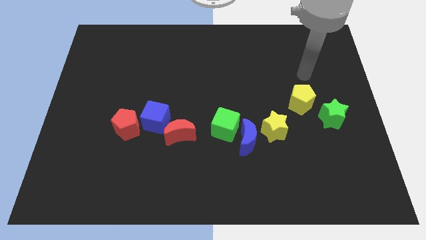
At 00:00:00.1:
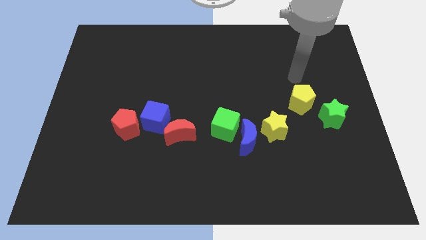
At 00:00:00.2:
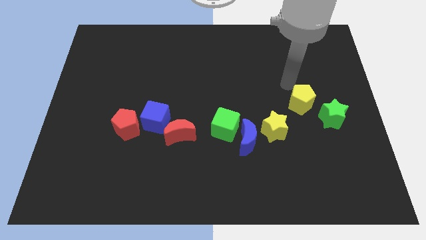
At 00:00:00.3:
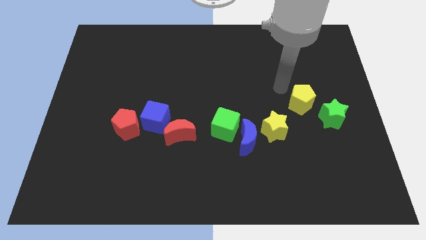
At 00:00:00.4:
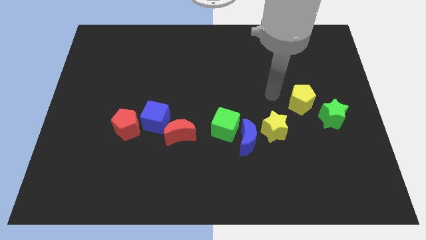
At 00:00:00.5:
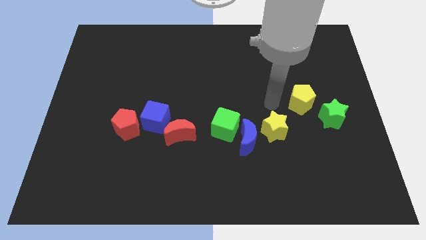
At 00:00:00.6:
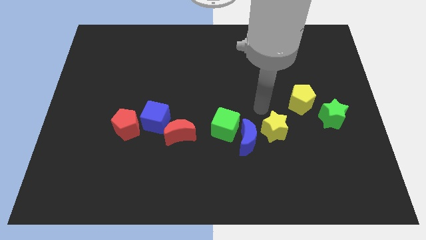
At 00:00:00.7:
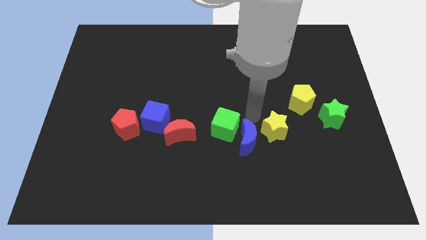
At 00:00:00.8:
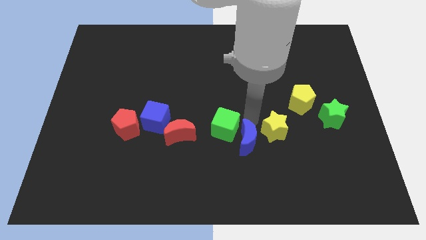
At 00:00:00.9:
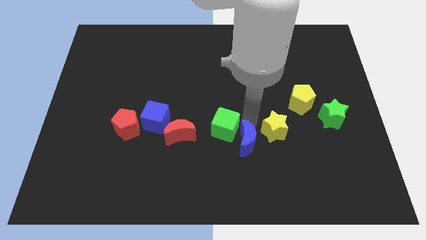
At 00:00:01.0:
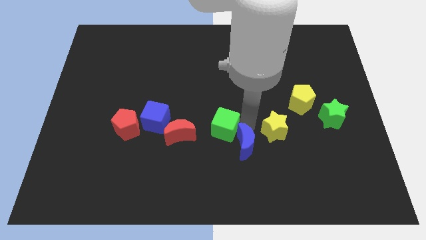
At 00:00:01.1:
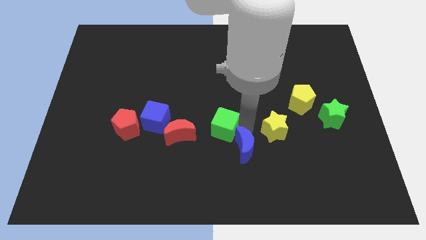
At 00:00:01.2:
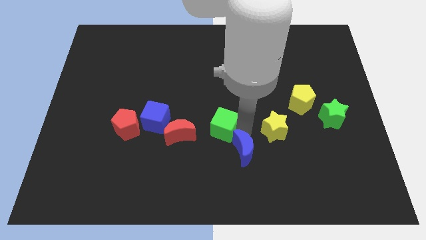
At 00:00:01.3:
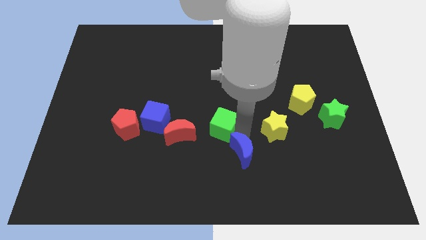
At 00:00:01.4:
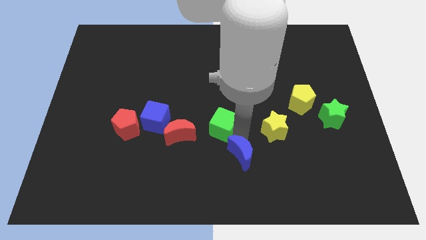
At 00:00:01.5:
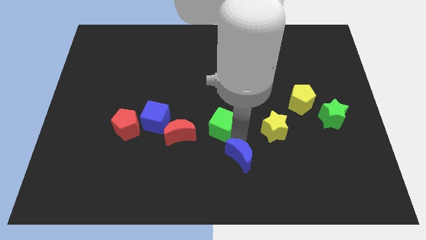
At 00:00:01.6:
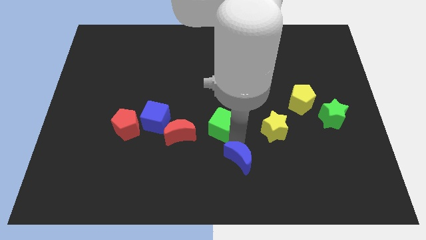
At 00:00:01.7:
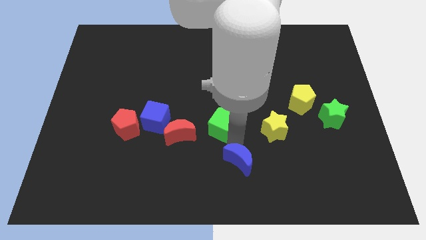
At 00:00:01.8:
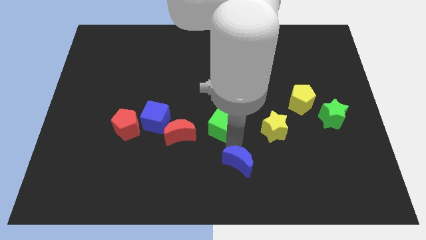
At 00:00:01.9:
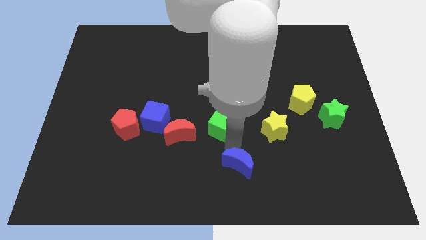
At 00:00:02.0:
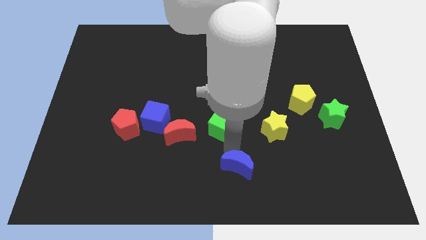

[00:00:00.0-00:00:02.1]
separate the blue moon from the green cube and yellow star

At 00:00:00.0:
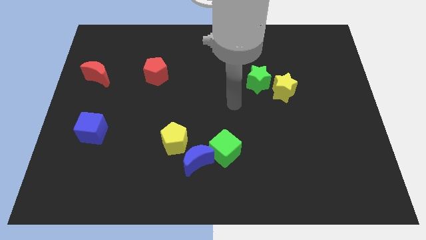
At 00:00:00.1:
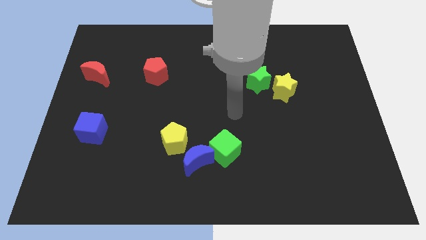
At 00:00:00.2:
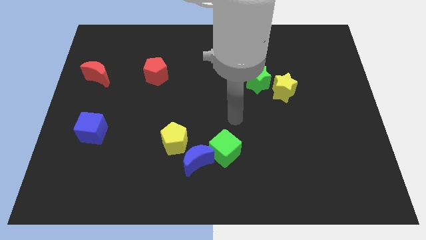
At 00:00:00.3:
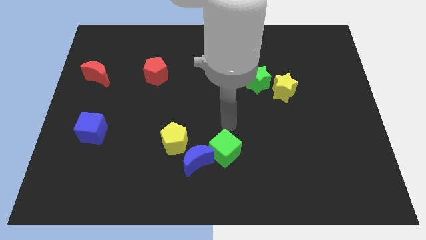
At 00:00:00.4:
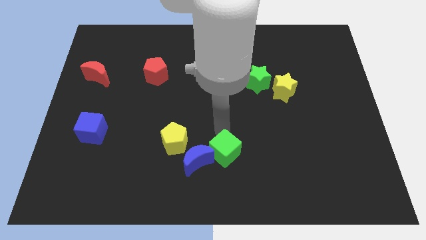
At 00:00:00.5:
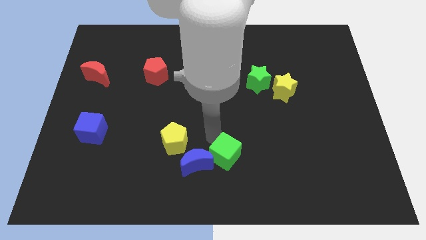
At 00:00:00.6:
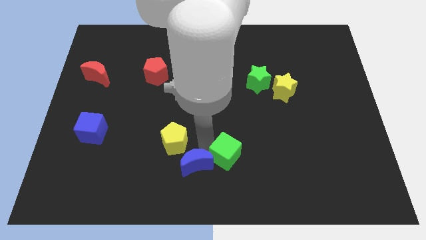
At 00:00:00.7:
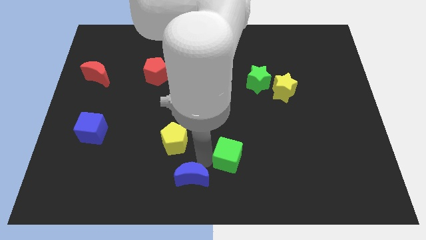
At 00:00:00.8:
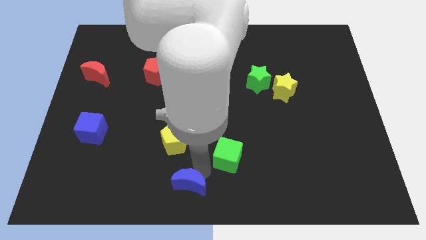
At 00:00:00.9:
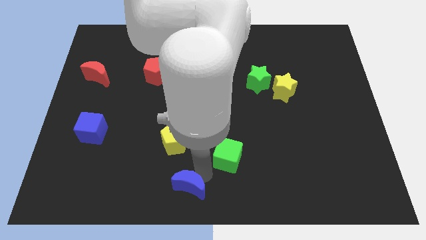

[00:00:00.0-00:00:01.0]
move the green cube away from the blue moon

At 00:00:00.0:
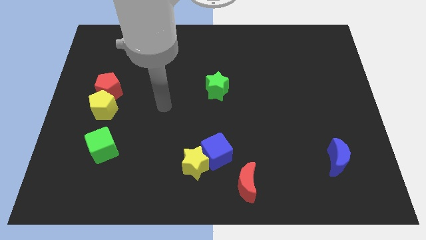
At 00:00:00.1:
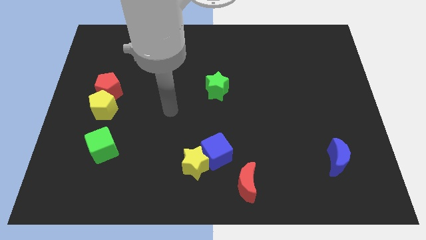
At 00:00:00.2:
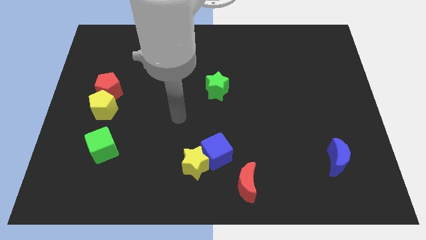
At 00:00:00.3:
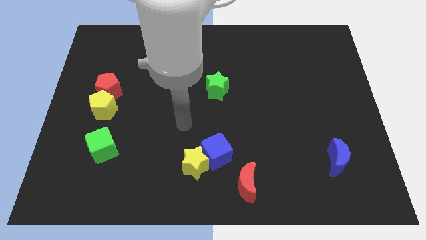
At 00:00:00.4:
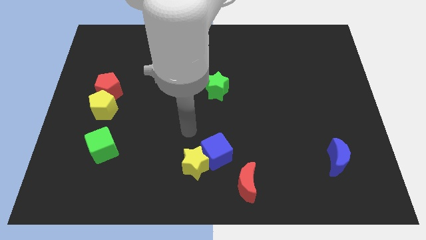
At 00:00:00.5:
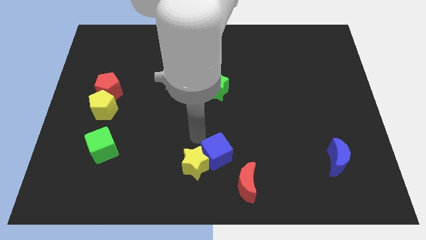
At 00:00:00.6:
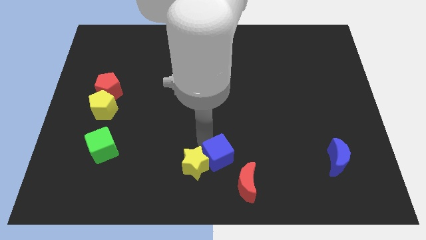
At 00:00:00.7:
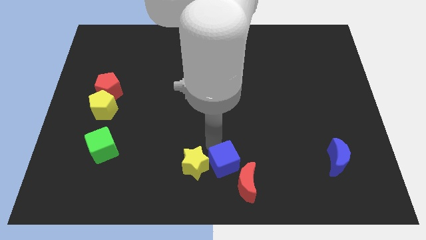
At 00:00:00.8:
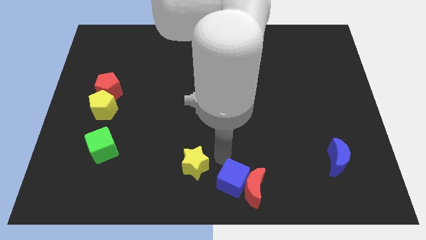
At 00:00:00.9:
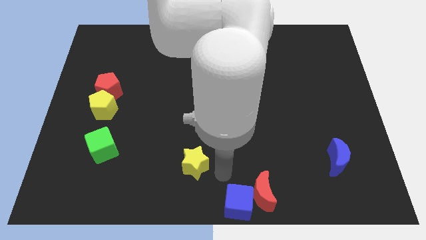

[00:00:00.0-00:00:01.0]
move the yellow star away from the blue cube

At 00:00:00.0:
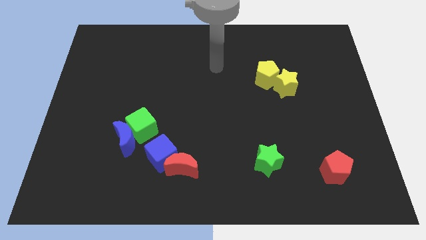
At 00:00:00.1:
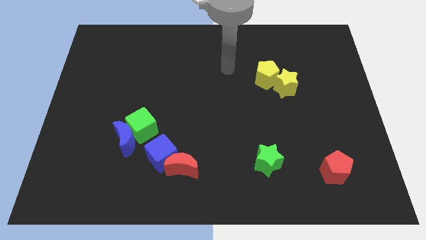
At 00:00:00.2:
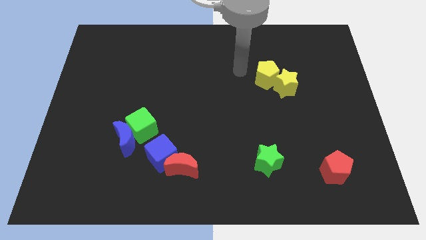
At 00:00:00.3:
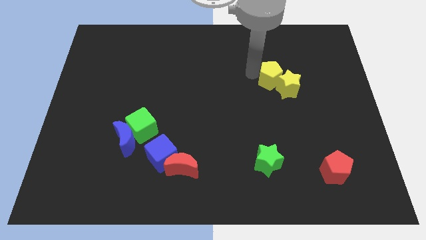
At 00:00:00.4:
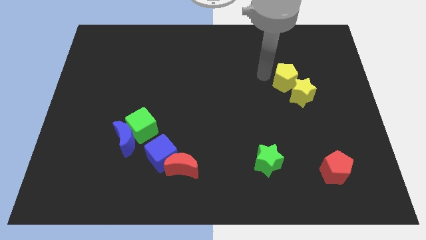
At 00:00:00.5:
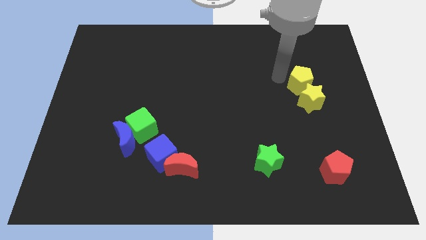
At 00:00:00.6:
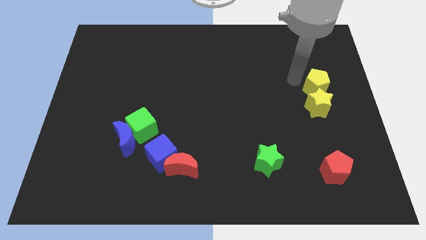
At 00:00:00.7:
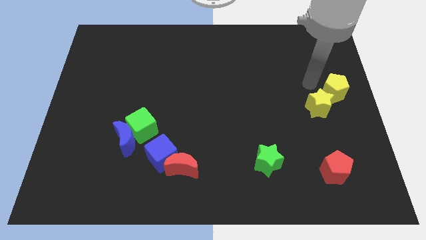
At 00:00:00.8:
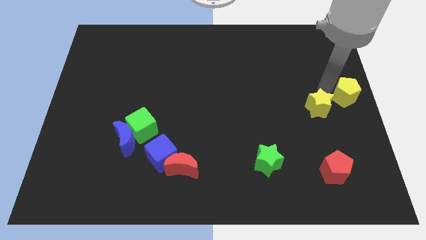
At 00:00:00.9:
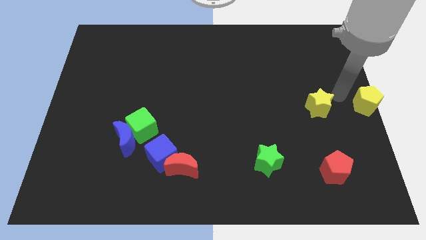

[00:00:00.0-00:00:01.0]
pull the yellow star apart from the yellow pentagon

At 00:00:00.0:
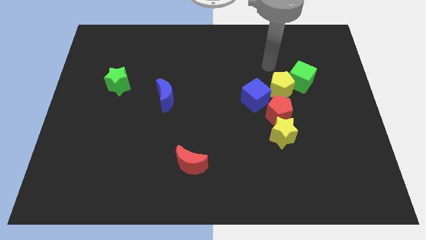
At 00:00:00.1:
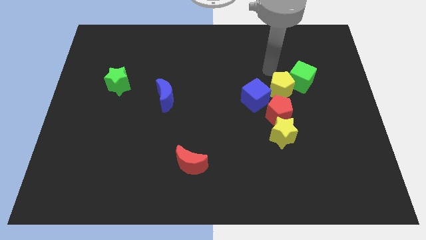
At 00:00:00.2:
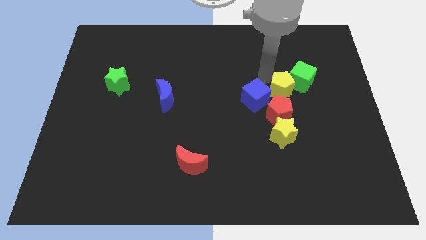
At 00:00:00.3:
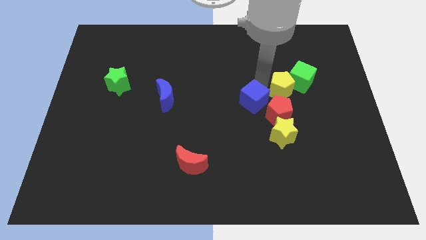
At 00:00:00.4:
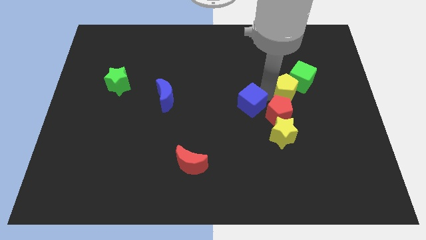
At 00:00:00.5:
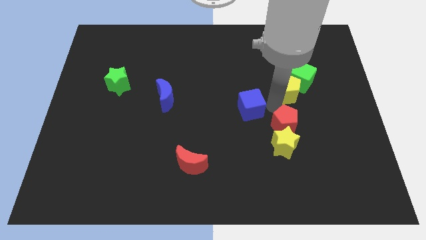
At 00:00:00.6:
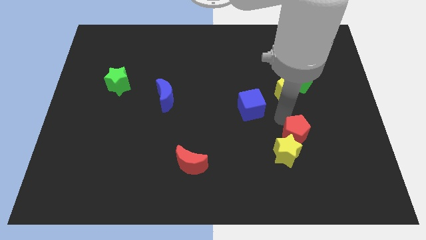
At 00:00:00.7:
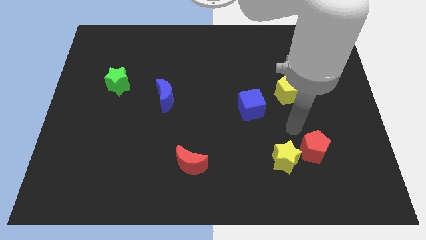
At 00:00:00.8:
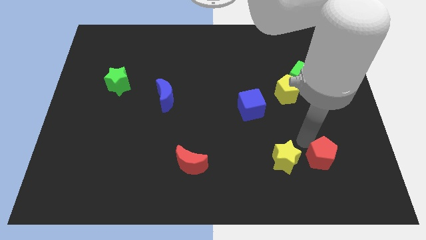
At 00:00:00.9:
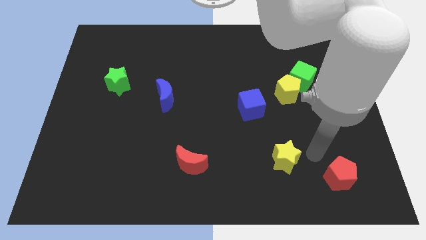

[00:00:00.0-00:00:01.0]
move the yellow star away from the red pentagon

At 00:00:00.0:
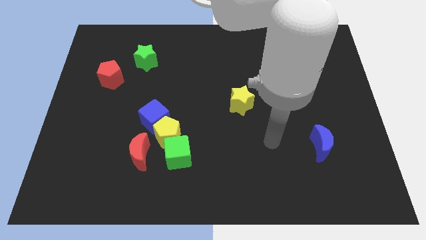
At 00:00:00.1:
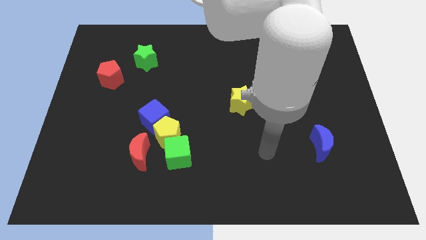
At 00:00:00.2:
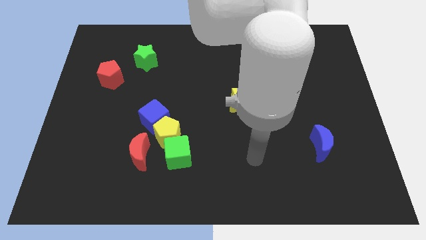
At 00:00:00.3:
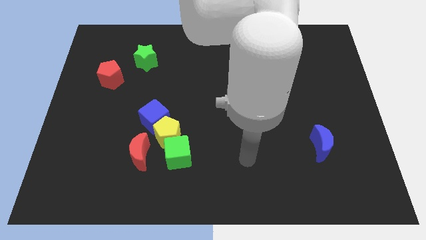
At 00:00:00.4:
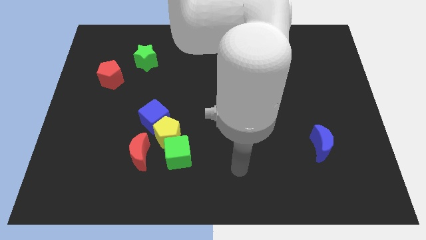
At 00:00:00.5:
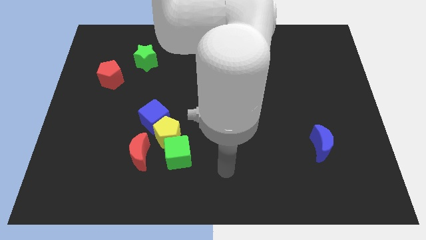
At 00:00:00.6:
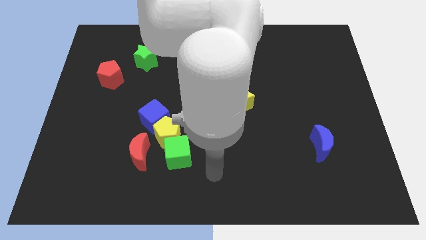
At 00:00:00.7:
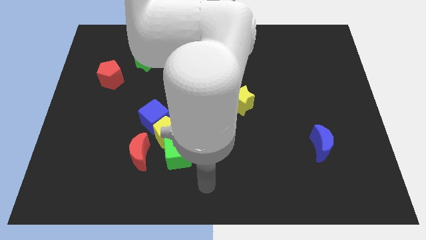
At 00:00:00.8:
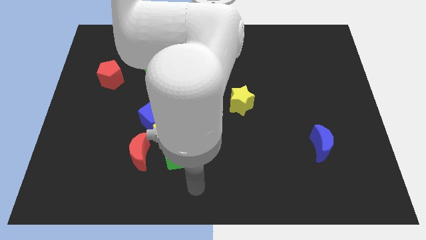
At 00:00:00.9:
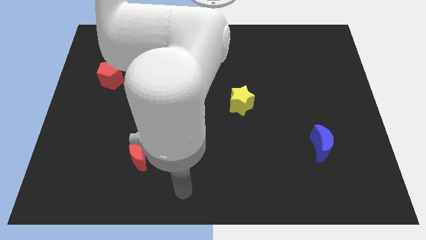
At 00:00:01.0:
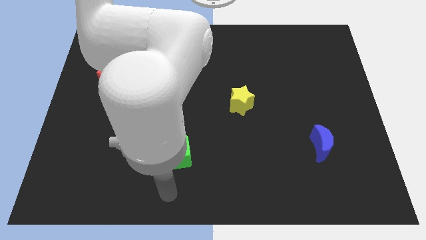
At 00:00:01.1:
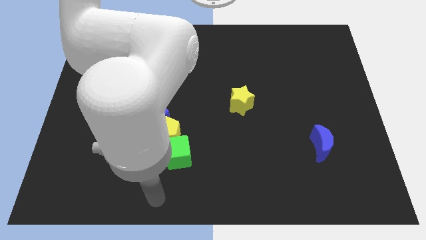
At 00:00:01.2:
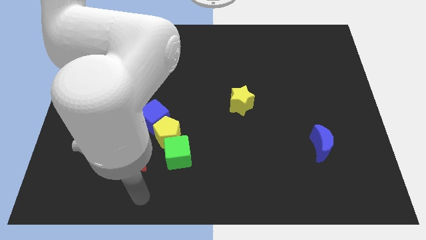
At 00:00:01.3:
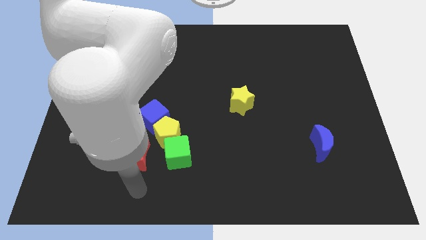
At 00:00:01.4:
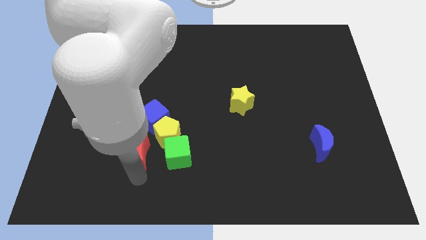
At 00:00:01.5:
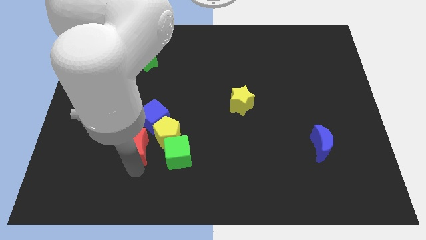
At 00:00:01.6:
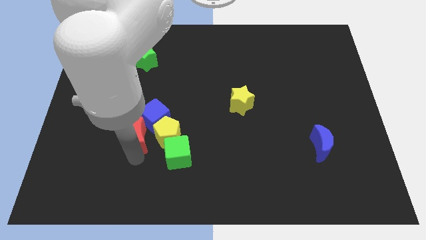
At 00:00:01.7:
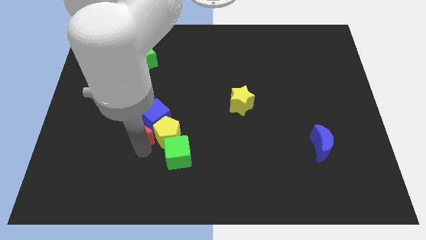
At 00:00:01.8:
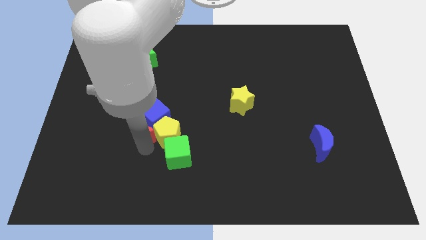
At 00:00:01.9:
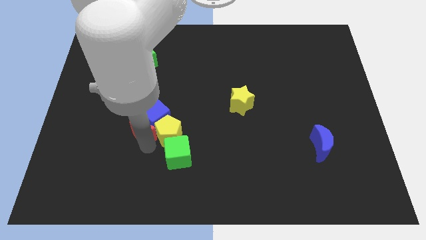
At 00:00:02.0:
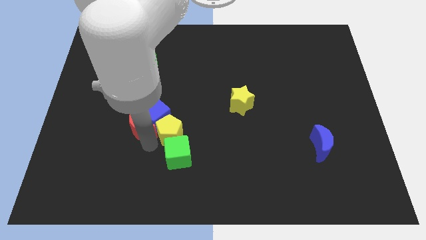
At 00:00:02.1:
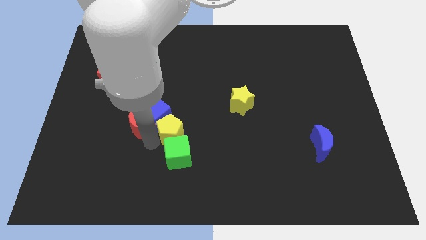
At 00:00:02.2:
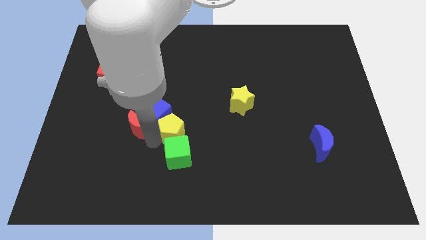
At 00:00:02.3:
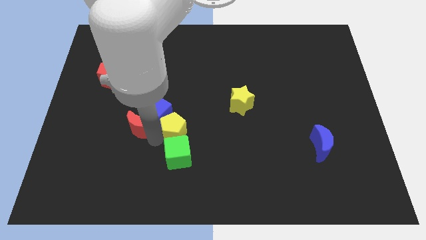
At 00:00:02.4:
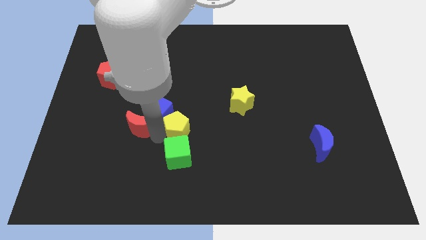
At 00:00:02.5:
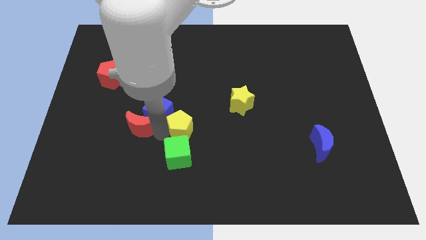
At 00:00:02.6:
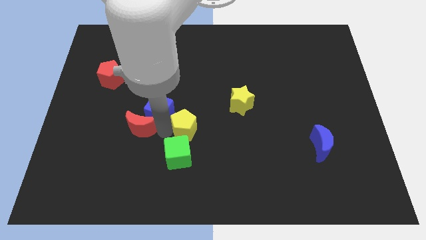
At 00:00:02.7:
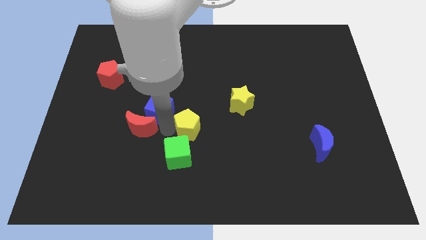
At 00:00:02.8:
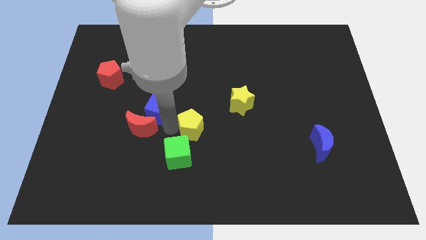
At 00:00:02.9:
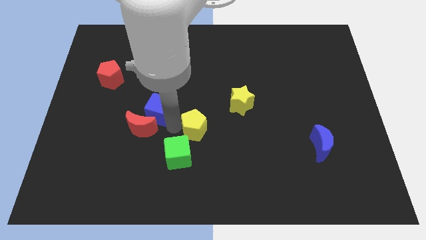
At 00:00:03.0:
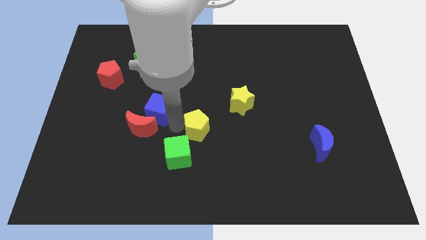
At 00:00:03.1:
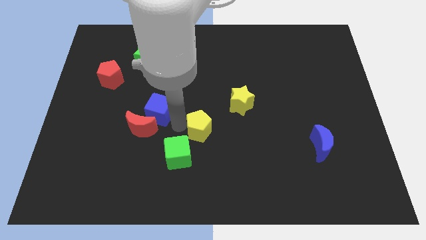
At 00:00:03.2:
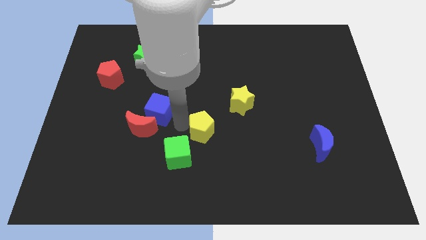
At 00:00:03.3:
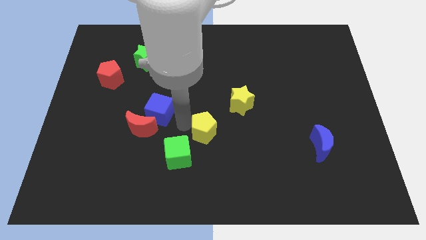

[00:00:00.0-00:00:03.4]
pull the yellow pentagon apart from the group of blocks
